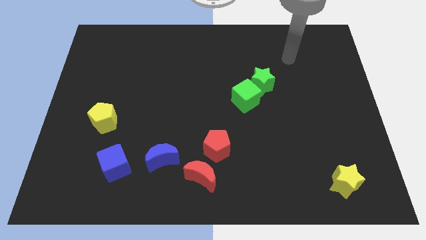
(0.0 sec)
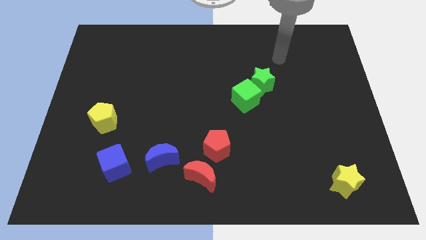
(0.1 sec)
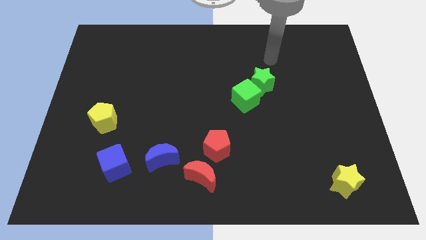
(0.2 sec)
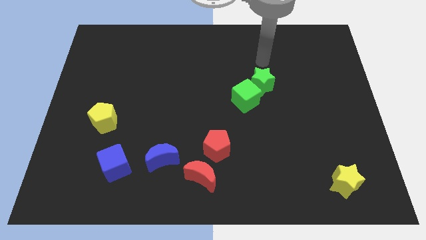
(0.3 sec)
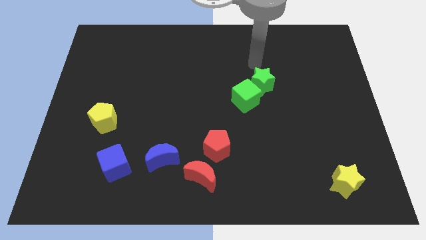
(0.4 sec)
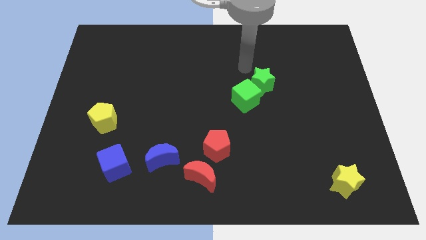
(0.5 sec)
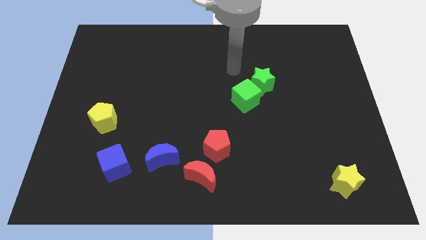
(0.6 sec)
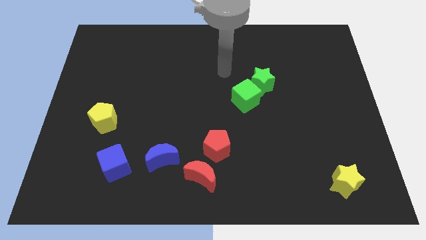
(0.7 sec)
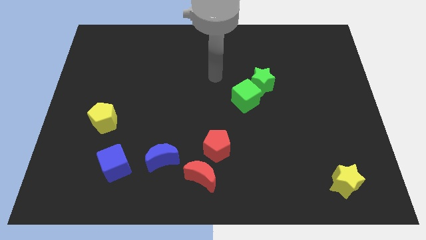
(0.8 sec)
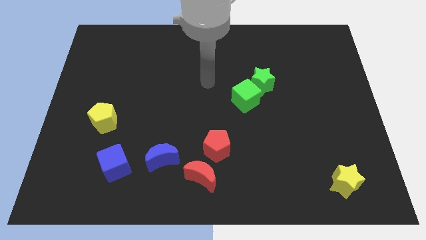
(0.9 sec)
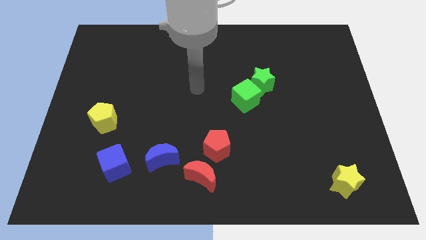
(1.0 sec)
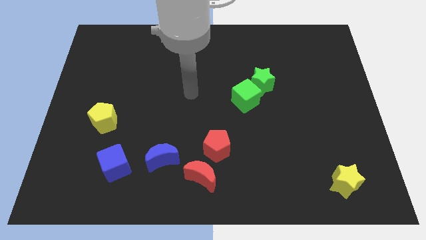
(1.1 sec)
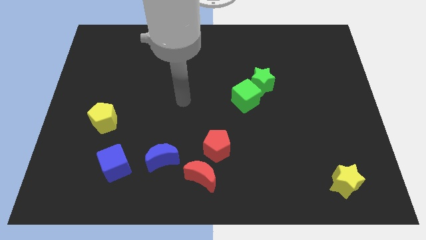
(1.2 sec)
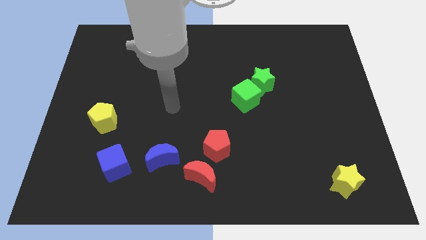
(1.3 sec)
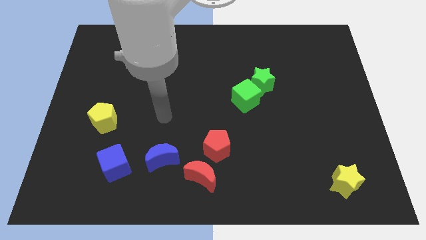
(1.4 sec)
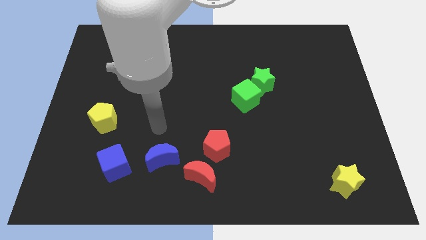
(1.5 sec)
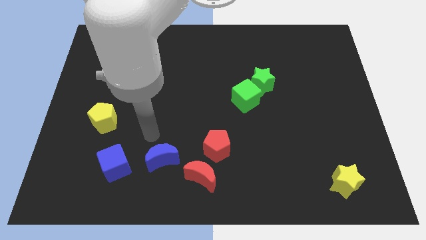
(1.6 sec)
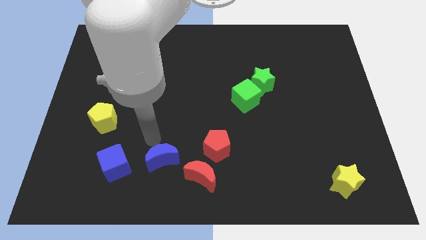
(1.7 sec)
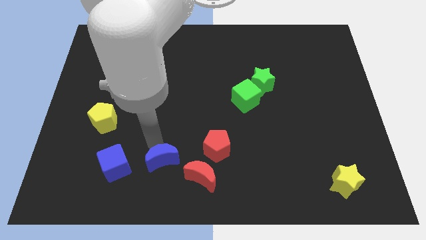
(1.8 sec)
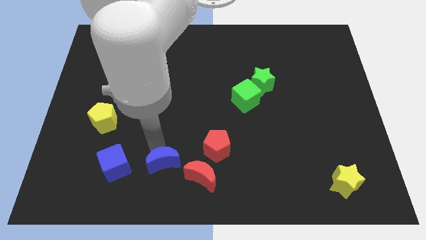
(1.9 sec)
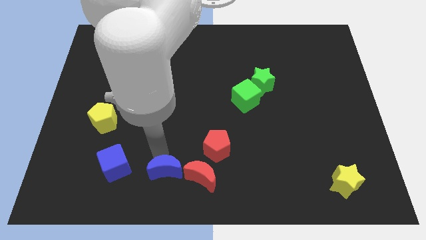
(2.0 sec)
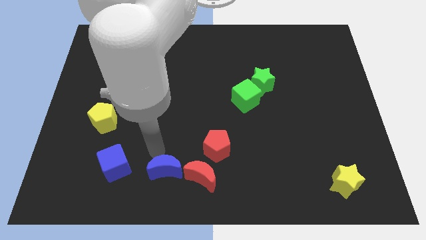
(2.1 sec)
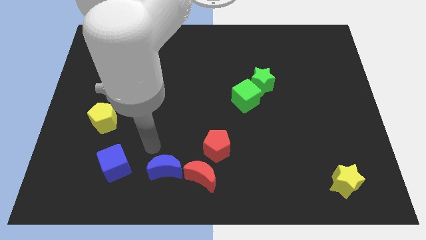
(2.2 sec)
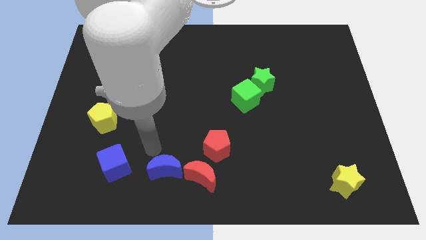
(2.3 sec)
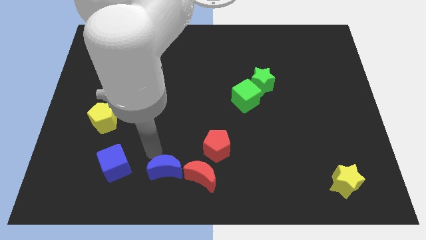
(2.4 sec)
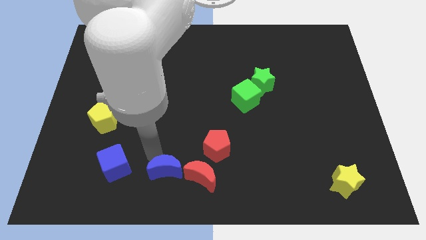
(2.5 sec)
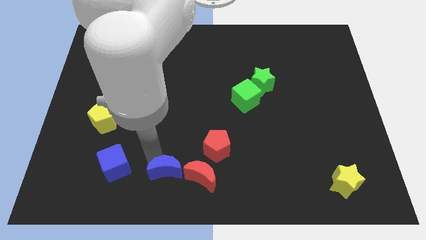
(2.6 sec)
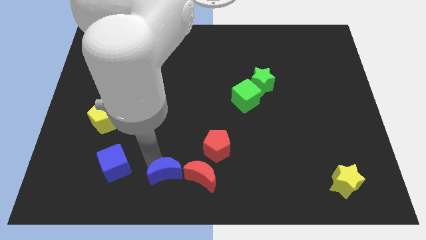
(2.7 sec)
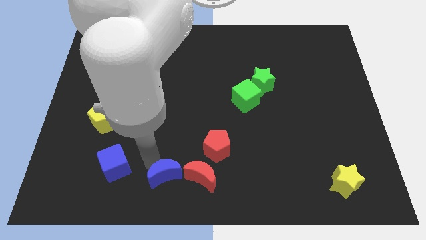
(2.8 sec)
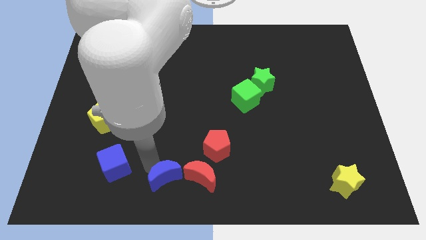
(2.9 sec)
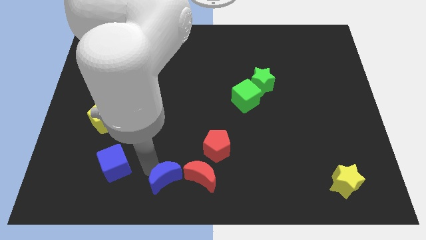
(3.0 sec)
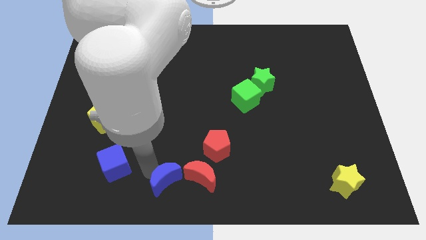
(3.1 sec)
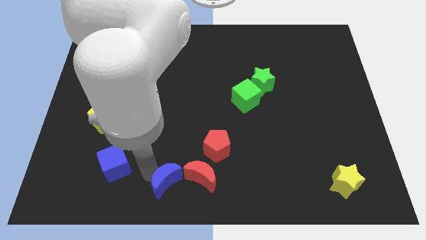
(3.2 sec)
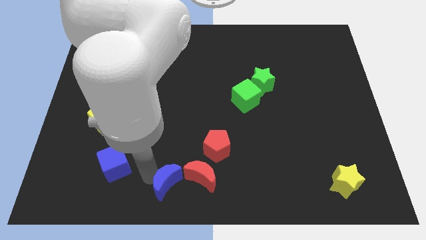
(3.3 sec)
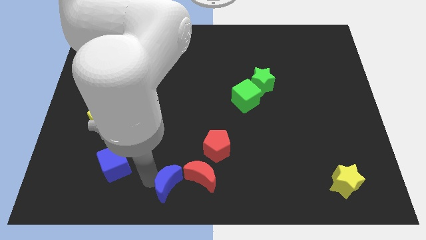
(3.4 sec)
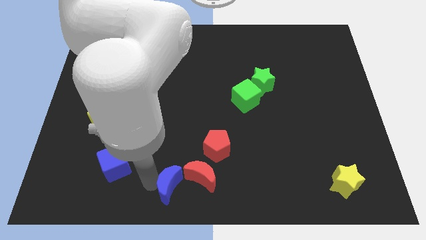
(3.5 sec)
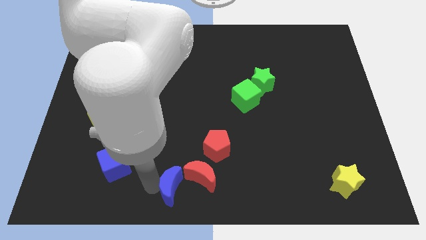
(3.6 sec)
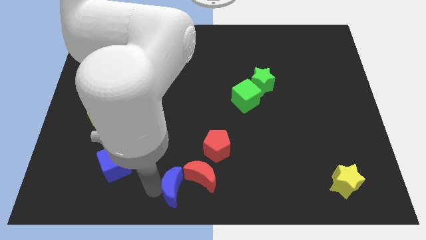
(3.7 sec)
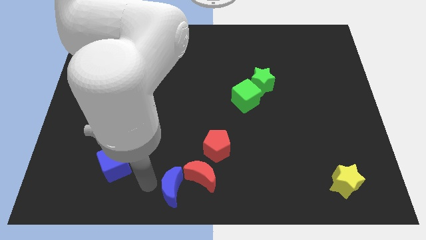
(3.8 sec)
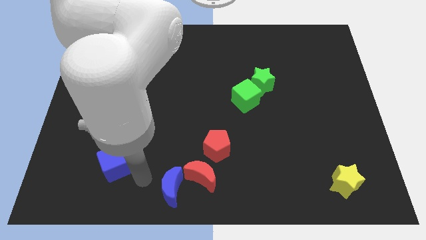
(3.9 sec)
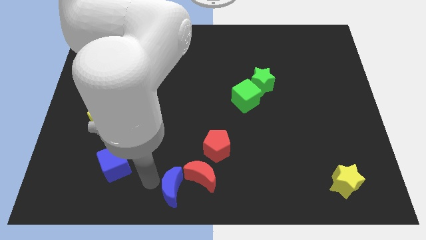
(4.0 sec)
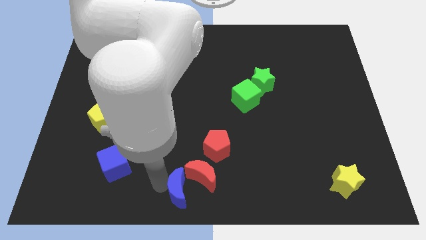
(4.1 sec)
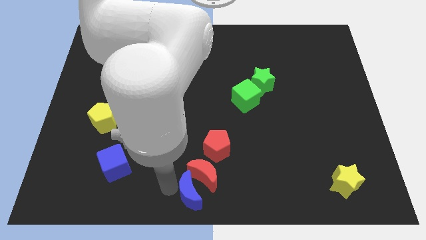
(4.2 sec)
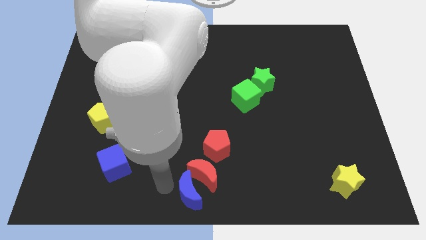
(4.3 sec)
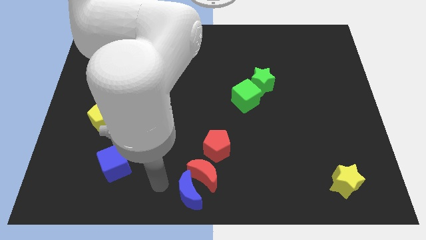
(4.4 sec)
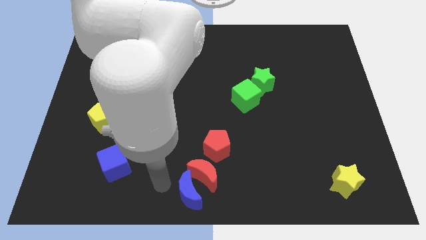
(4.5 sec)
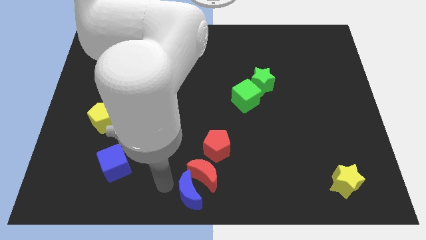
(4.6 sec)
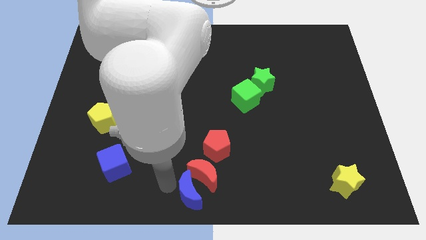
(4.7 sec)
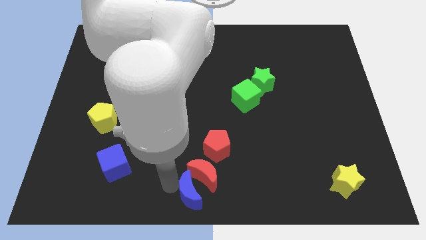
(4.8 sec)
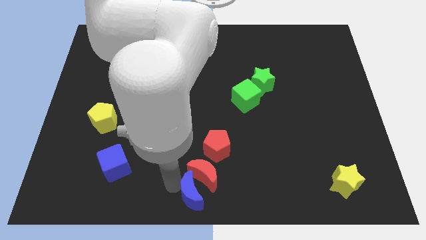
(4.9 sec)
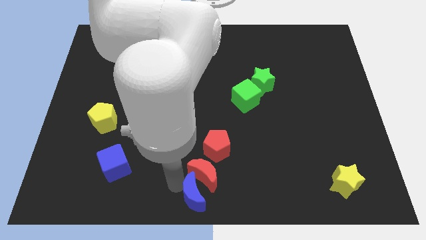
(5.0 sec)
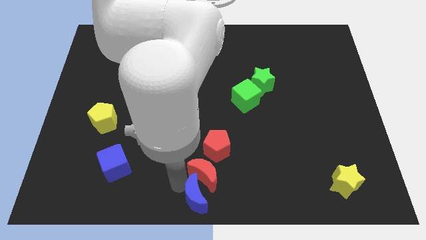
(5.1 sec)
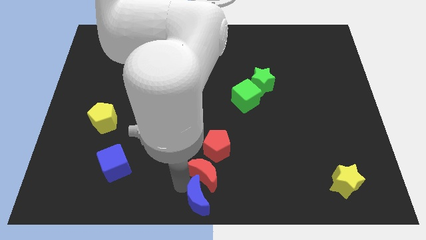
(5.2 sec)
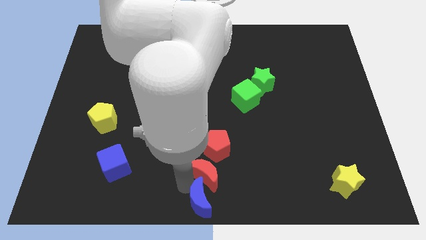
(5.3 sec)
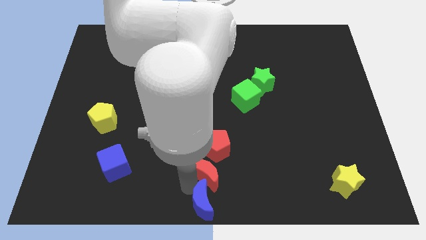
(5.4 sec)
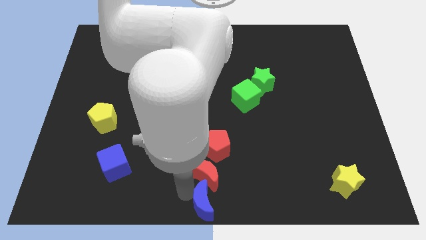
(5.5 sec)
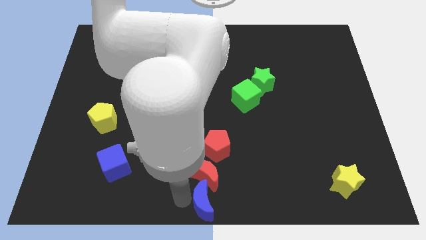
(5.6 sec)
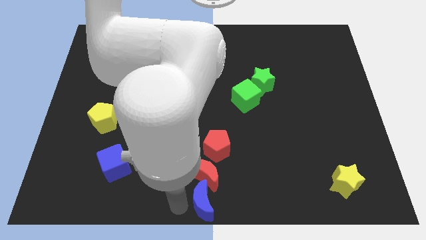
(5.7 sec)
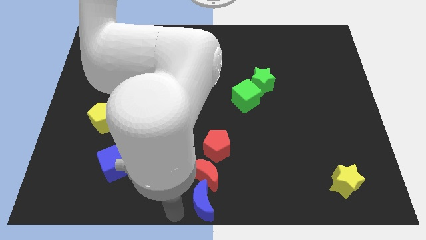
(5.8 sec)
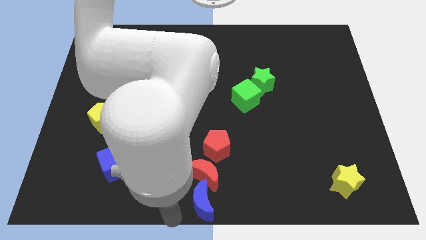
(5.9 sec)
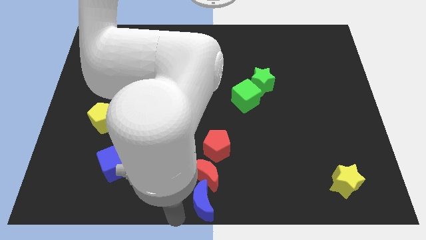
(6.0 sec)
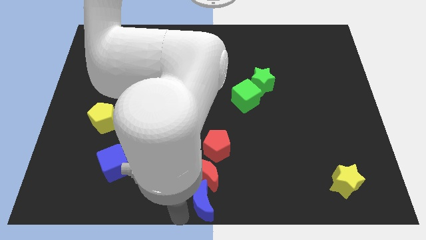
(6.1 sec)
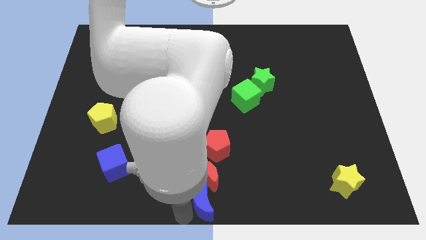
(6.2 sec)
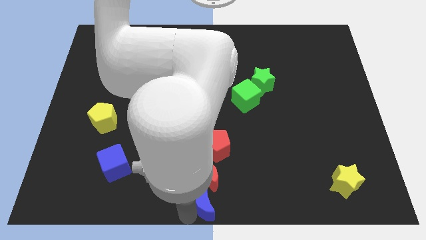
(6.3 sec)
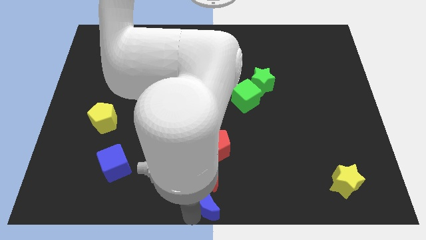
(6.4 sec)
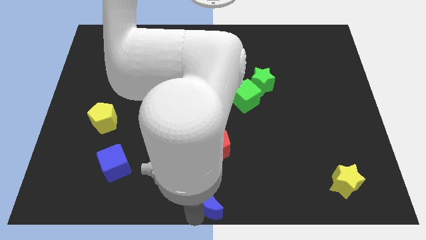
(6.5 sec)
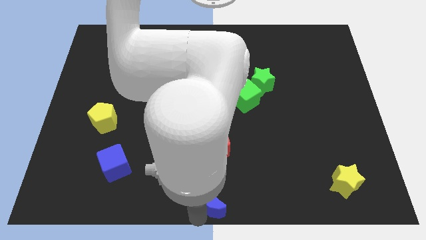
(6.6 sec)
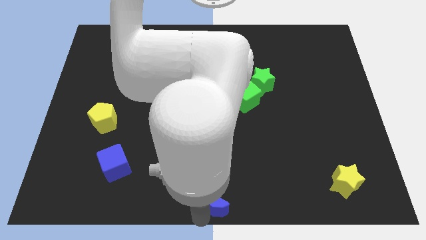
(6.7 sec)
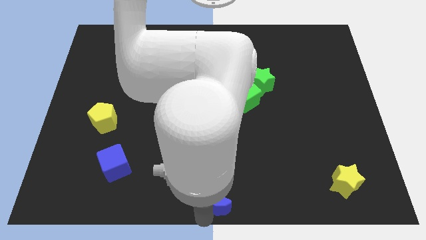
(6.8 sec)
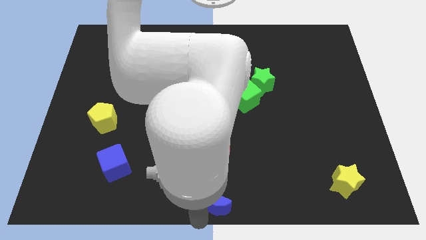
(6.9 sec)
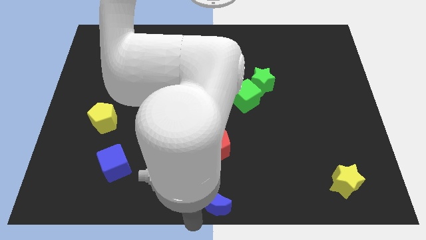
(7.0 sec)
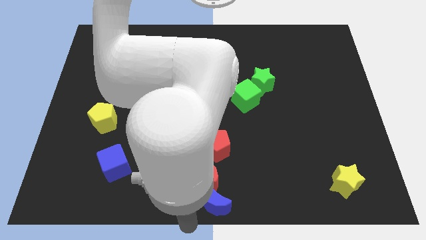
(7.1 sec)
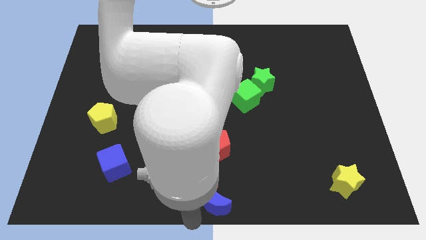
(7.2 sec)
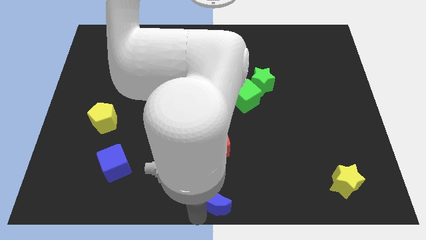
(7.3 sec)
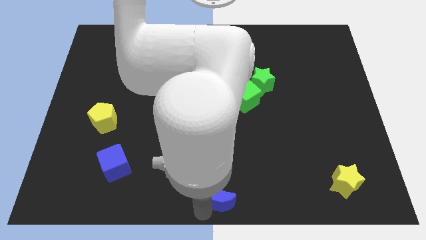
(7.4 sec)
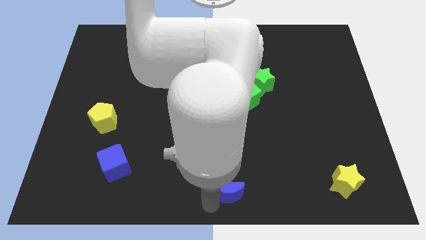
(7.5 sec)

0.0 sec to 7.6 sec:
move the blue moon to the right side of the red moon
